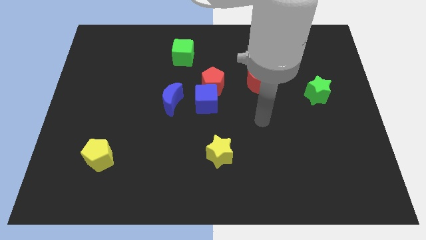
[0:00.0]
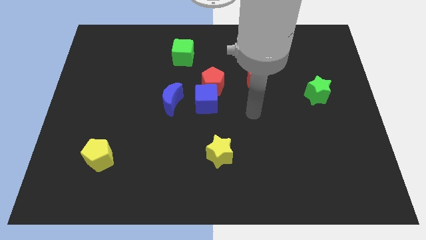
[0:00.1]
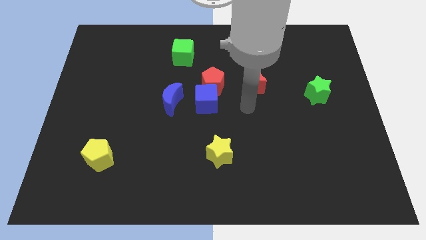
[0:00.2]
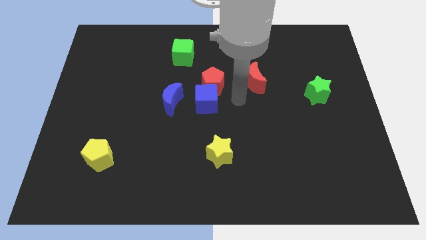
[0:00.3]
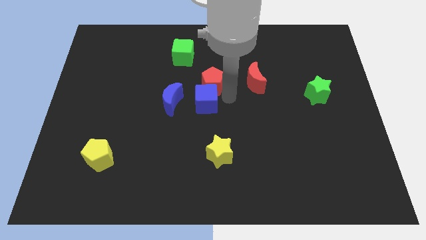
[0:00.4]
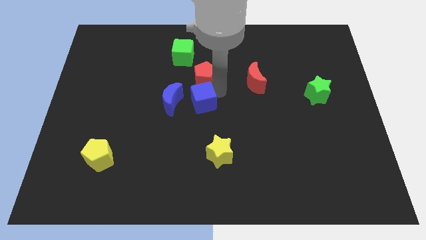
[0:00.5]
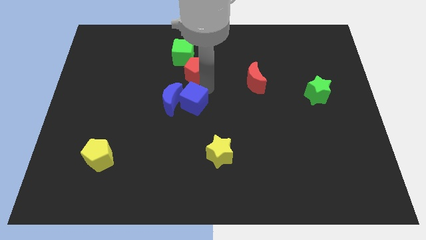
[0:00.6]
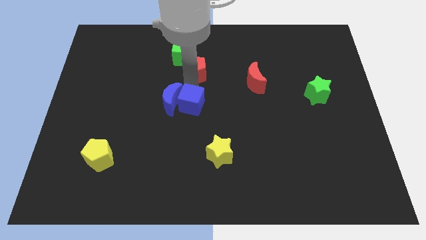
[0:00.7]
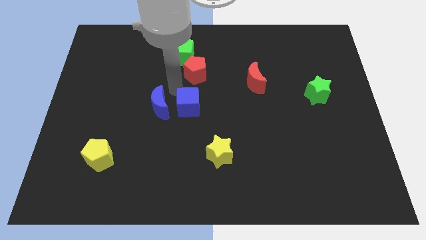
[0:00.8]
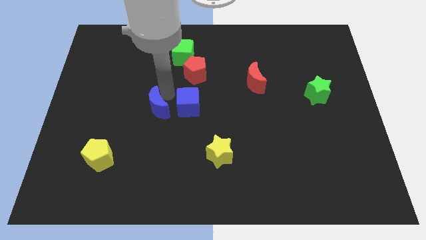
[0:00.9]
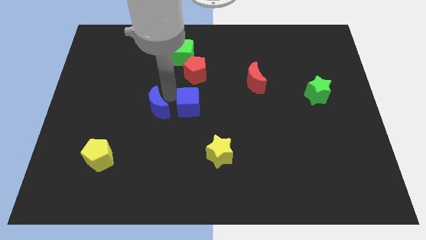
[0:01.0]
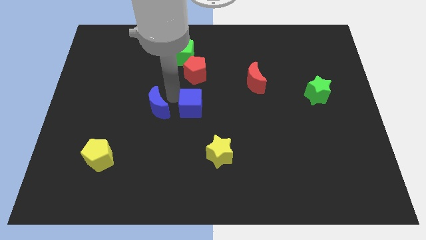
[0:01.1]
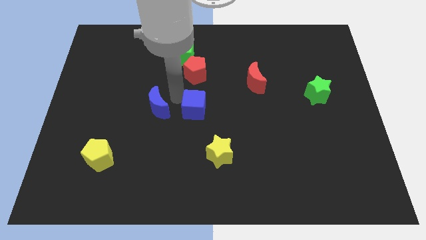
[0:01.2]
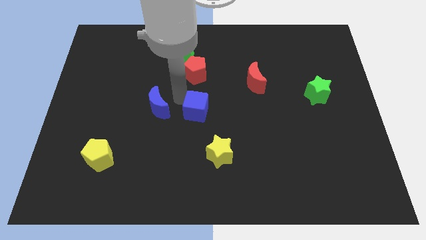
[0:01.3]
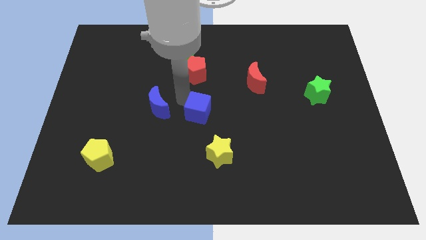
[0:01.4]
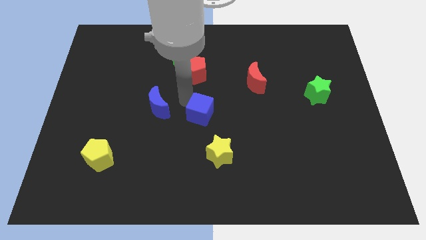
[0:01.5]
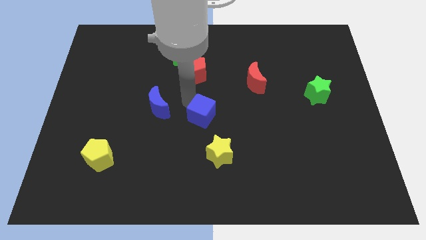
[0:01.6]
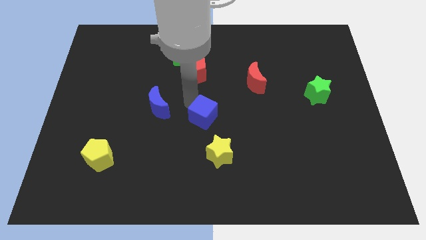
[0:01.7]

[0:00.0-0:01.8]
pull the blue cube apart from the red pentagon and blue moon

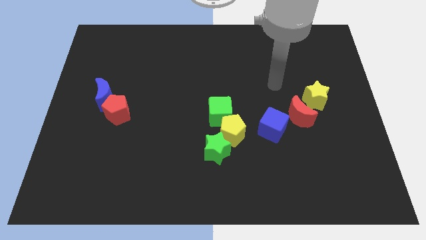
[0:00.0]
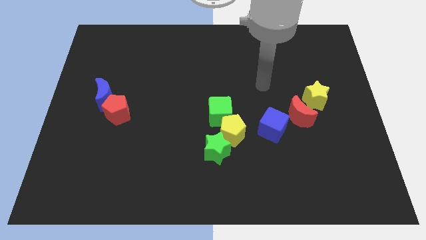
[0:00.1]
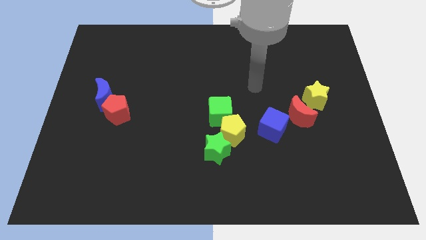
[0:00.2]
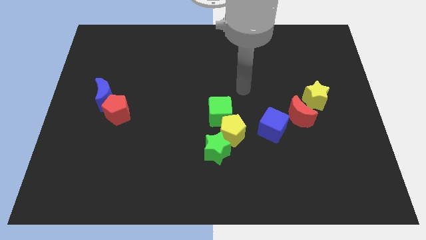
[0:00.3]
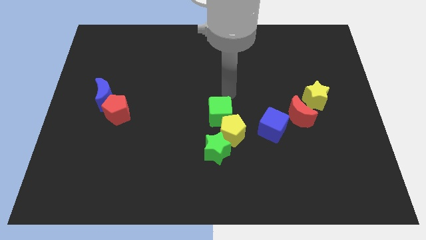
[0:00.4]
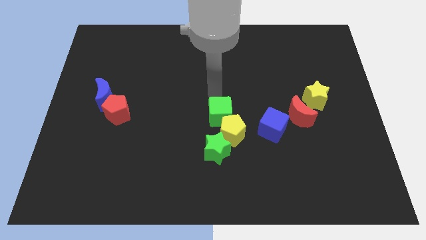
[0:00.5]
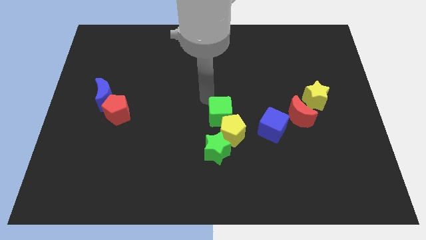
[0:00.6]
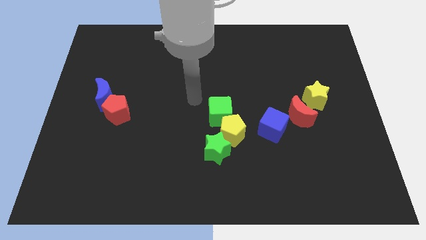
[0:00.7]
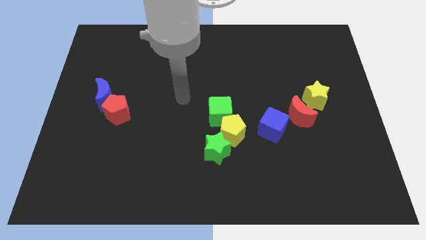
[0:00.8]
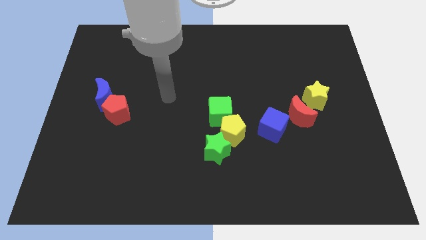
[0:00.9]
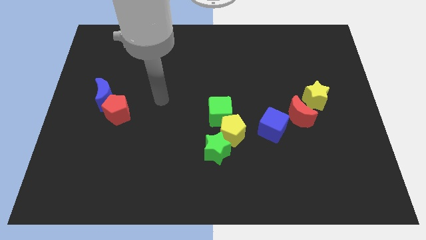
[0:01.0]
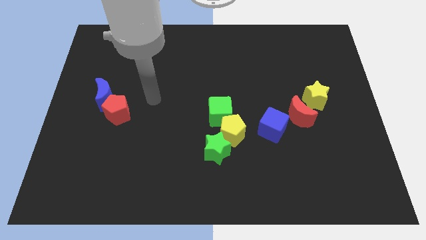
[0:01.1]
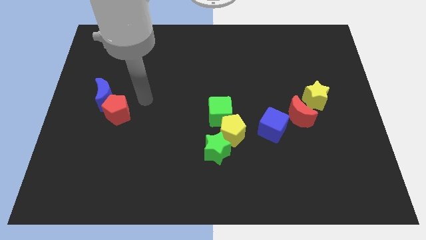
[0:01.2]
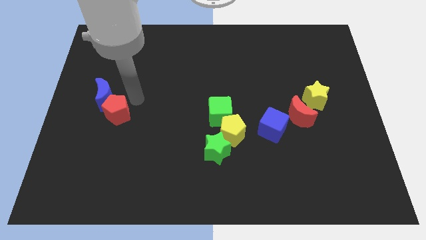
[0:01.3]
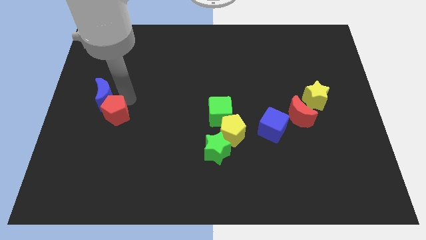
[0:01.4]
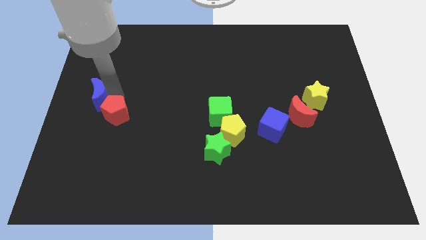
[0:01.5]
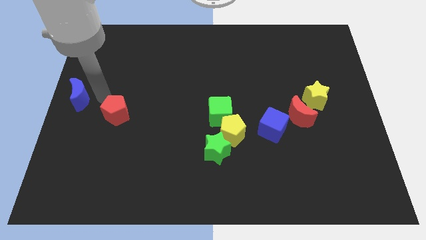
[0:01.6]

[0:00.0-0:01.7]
move the red pentagon away from the blue moon

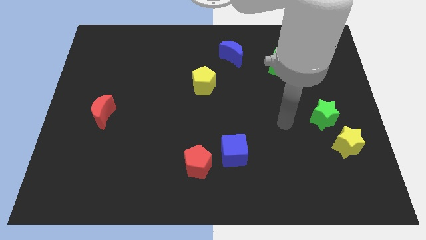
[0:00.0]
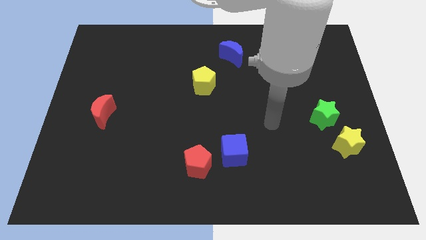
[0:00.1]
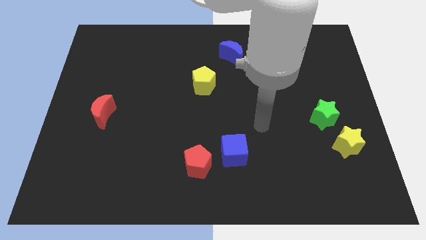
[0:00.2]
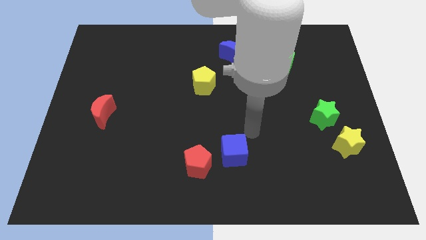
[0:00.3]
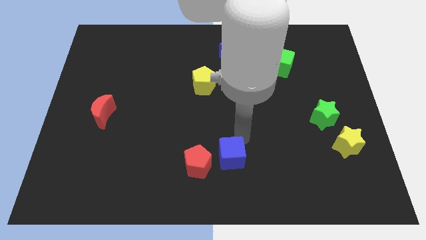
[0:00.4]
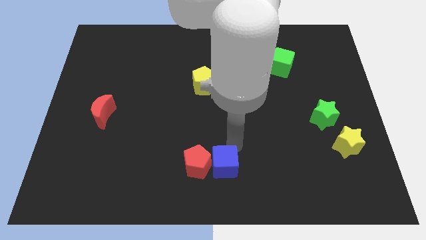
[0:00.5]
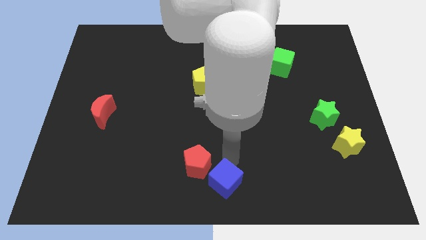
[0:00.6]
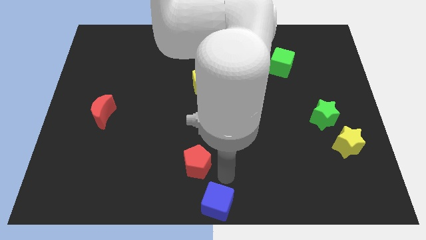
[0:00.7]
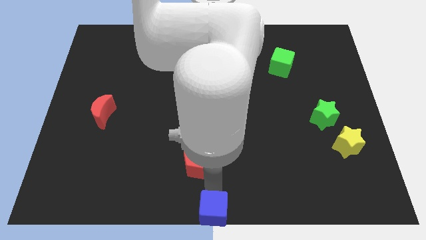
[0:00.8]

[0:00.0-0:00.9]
move the red pentagon away from the blue cube

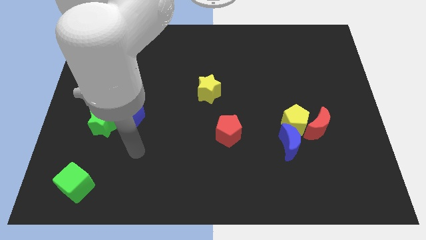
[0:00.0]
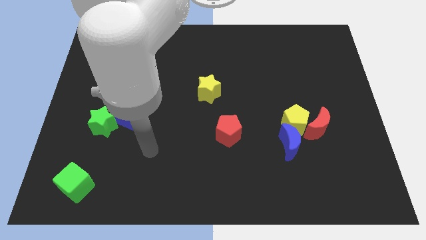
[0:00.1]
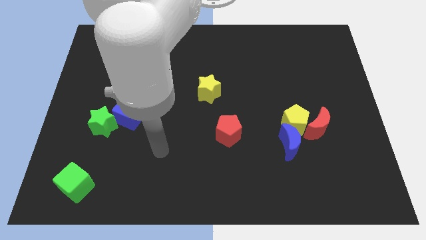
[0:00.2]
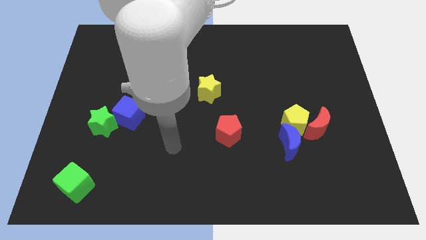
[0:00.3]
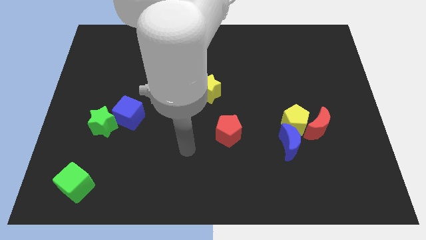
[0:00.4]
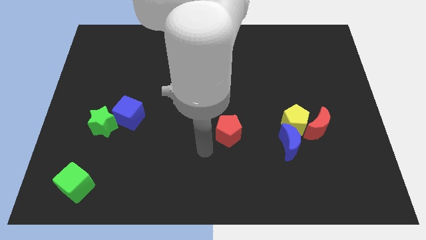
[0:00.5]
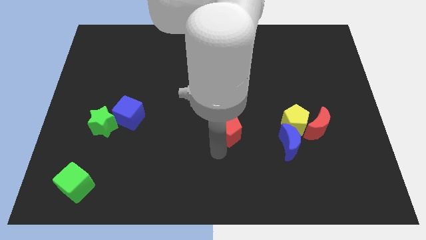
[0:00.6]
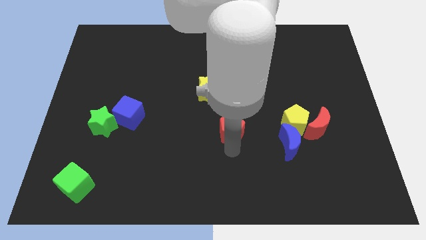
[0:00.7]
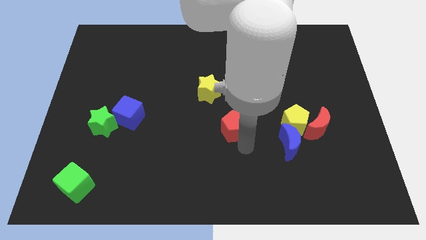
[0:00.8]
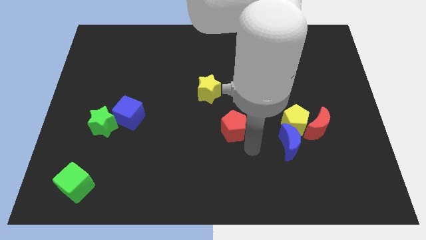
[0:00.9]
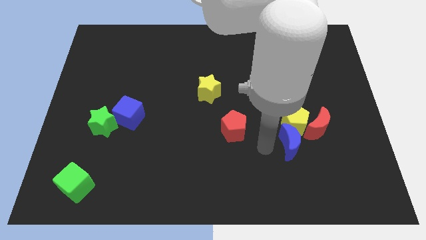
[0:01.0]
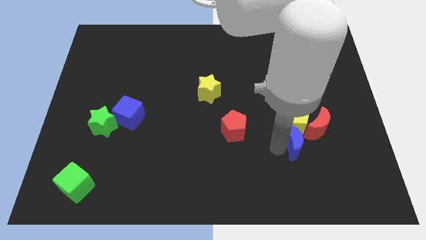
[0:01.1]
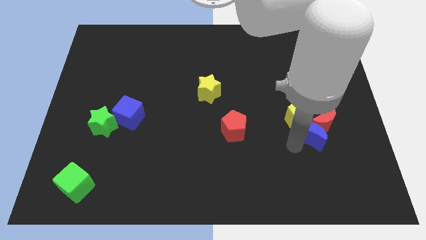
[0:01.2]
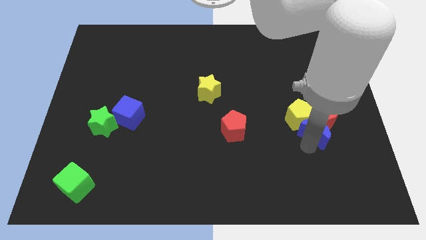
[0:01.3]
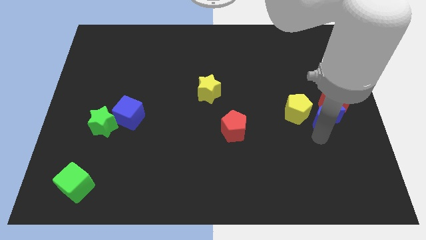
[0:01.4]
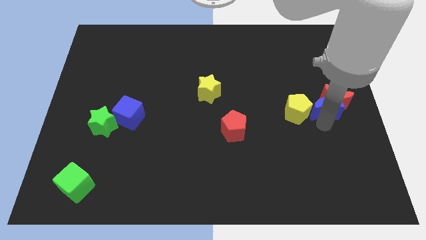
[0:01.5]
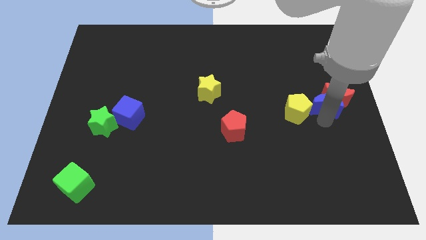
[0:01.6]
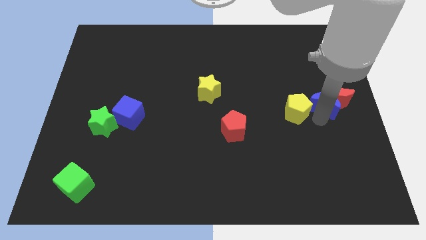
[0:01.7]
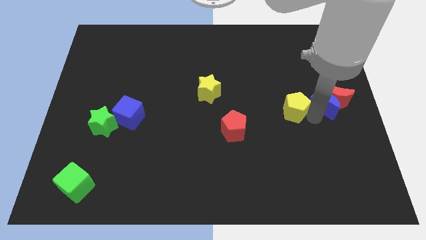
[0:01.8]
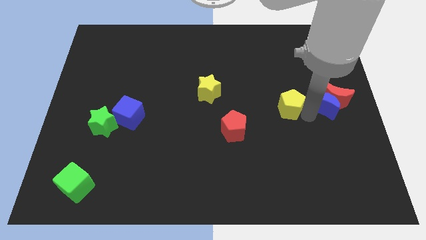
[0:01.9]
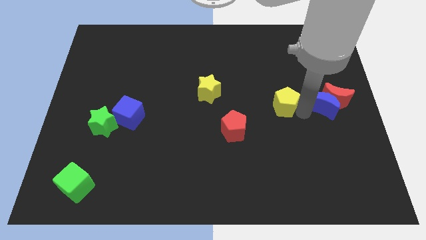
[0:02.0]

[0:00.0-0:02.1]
separate the yellow pentagon from the red moon and blue moon

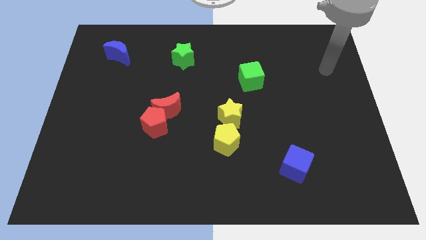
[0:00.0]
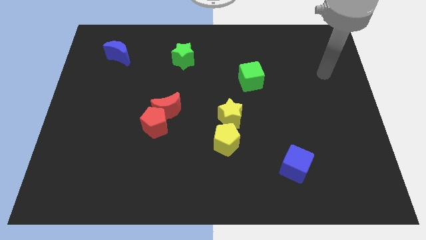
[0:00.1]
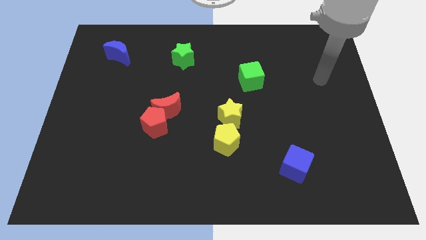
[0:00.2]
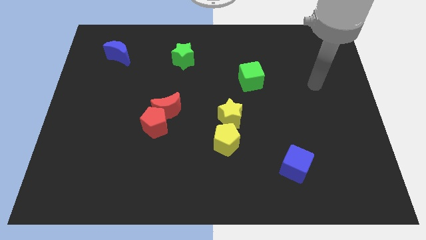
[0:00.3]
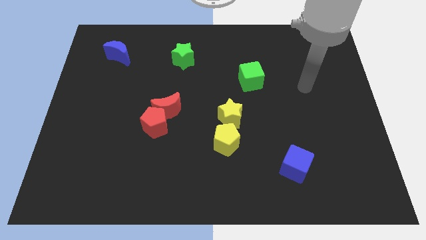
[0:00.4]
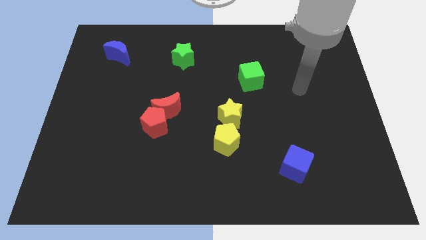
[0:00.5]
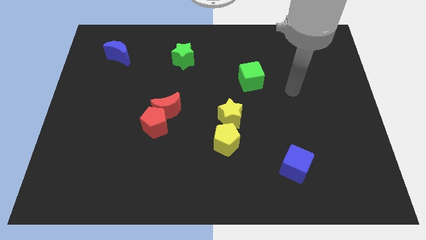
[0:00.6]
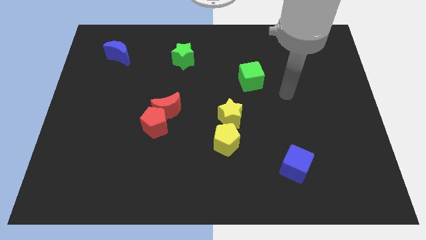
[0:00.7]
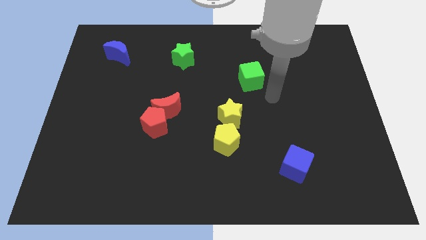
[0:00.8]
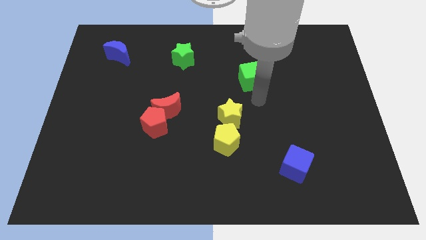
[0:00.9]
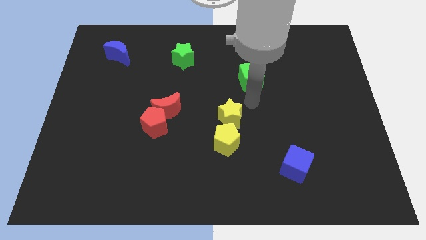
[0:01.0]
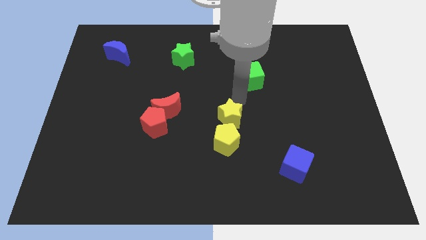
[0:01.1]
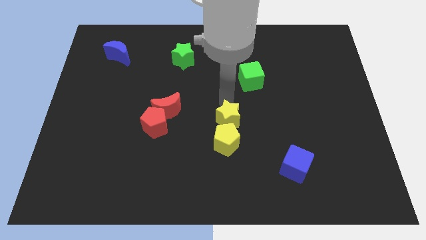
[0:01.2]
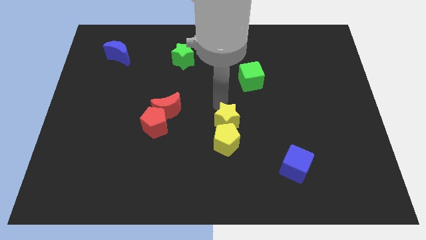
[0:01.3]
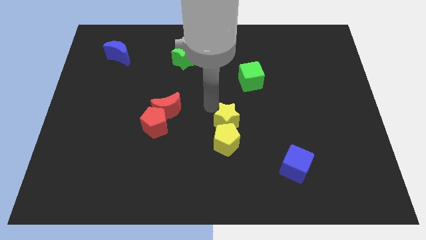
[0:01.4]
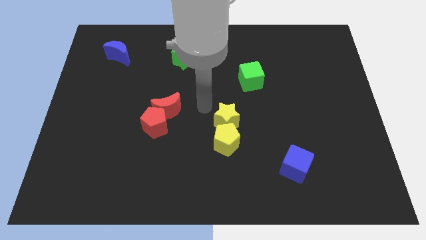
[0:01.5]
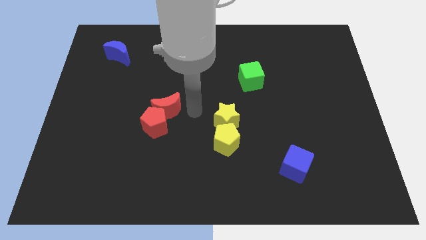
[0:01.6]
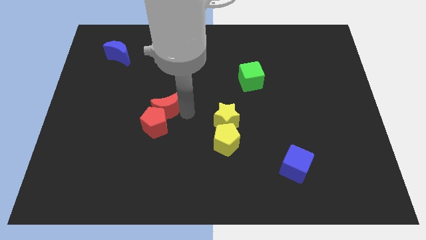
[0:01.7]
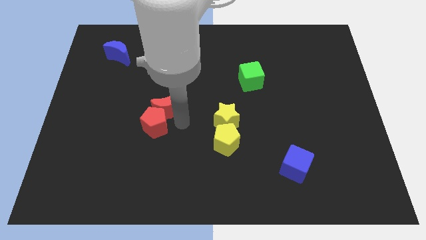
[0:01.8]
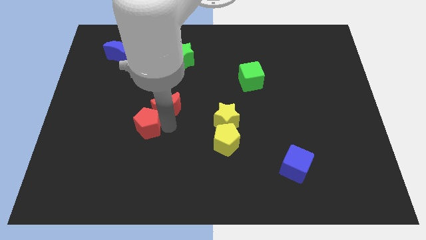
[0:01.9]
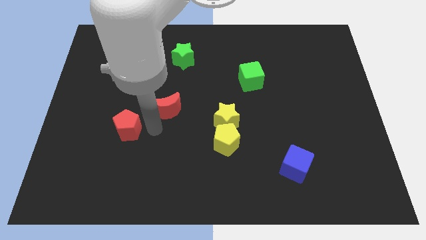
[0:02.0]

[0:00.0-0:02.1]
pull the red moon apart from the red pentagon

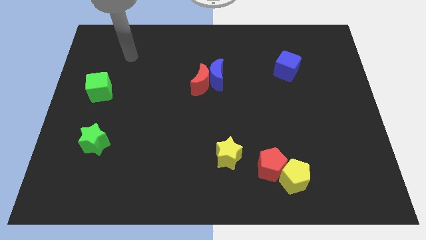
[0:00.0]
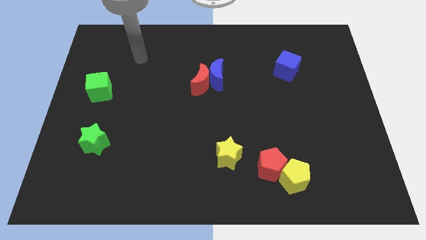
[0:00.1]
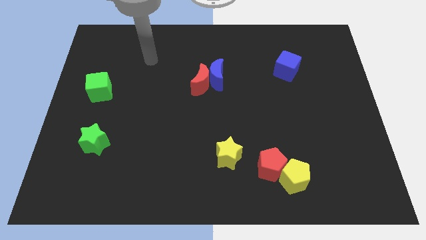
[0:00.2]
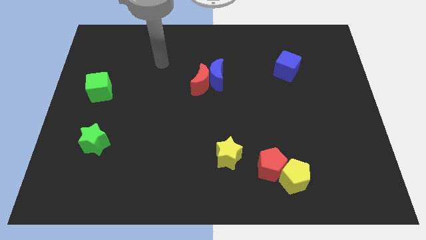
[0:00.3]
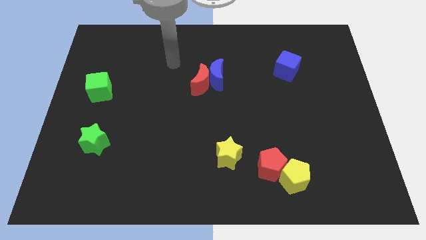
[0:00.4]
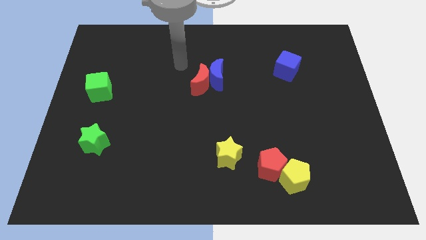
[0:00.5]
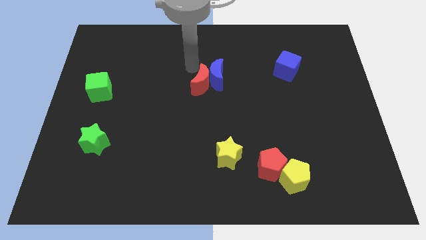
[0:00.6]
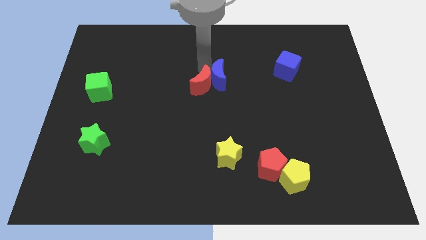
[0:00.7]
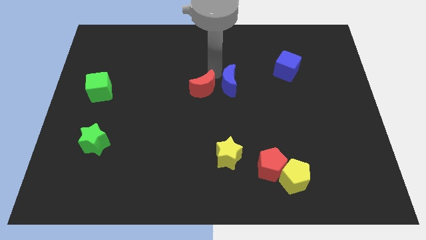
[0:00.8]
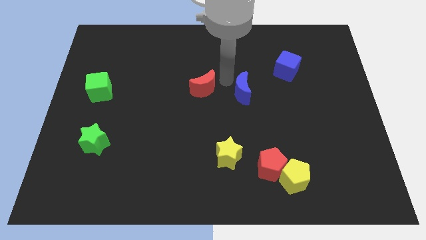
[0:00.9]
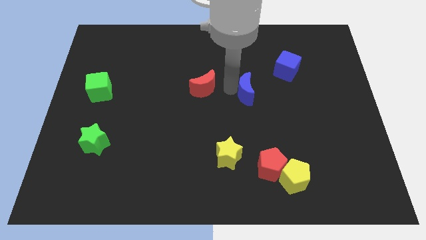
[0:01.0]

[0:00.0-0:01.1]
separate the red moon from the blue moon
